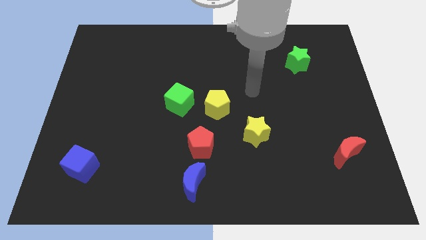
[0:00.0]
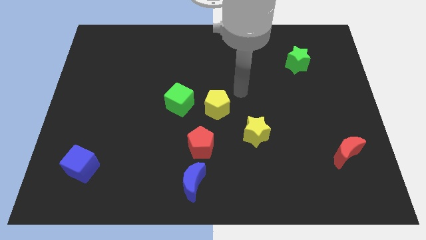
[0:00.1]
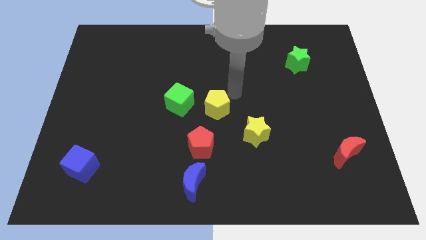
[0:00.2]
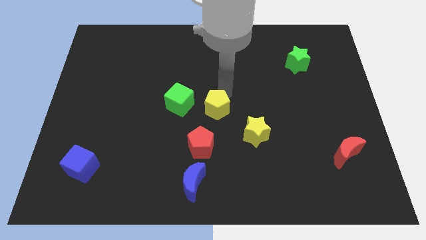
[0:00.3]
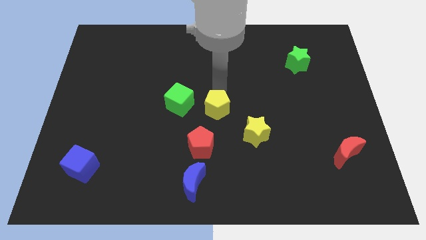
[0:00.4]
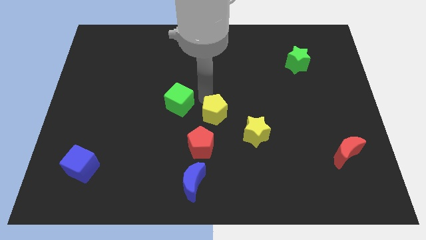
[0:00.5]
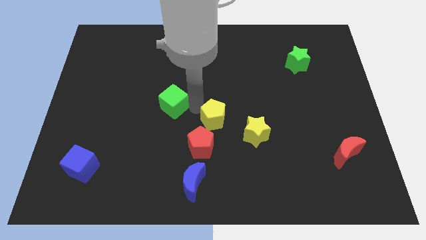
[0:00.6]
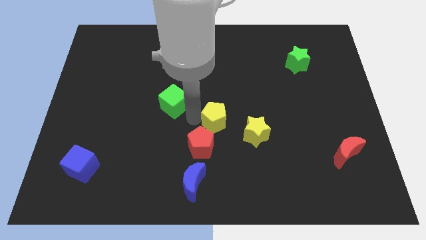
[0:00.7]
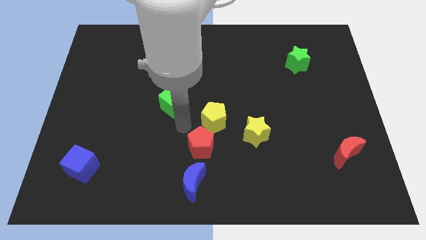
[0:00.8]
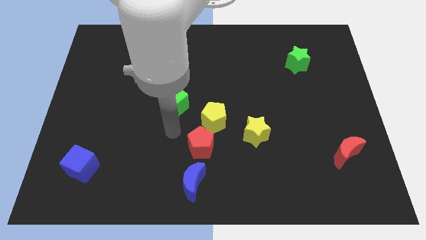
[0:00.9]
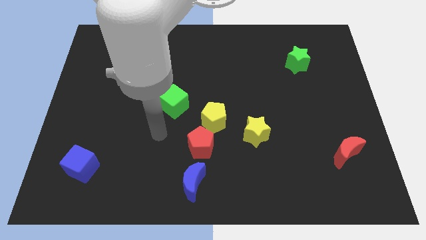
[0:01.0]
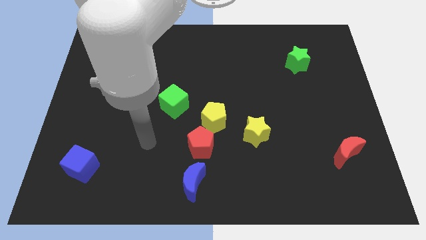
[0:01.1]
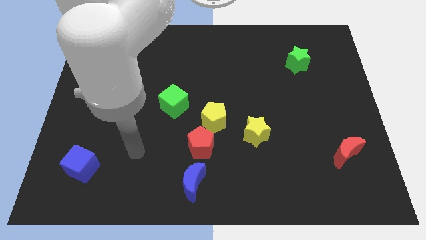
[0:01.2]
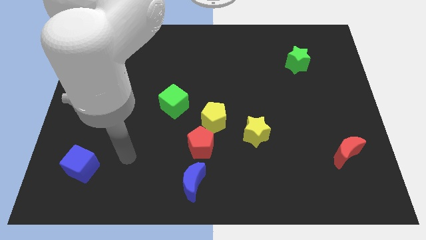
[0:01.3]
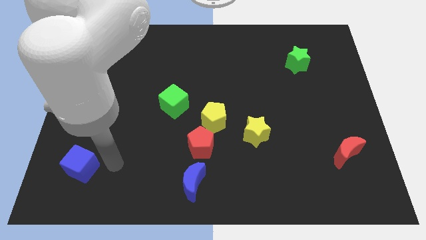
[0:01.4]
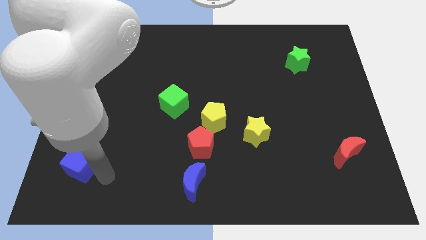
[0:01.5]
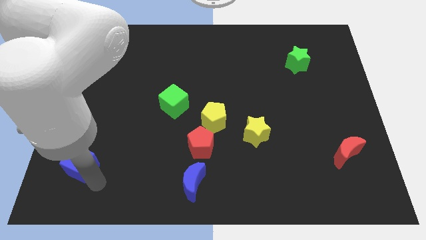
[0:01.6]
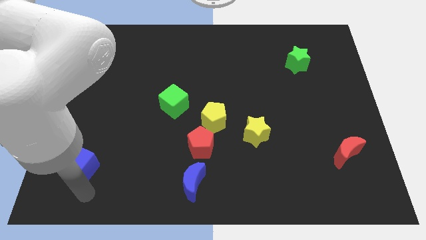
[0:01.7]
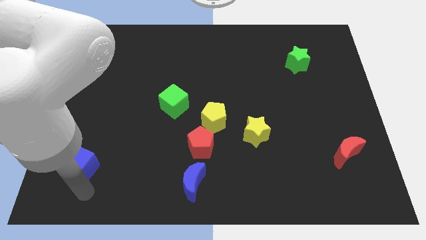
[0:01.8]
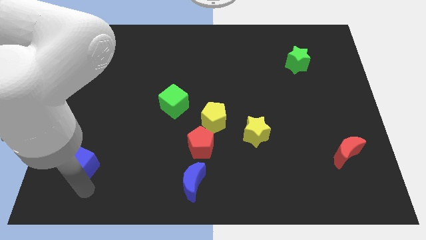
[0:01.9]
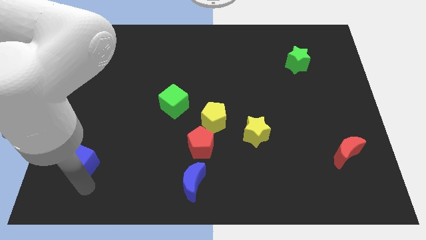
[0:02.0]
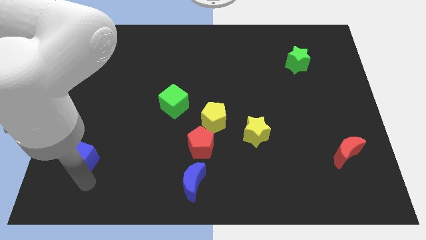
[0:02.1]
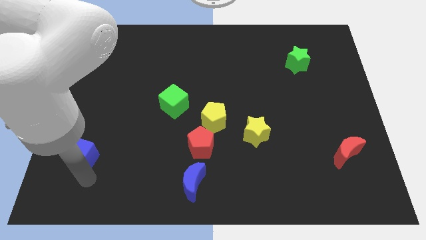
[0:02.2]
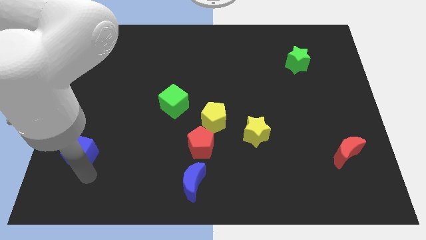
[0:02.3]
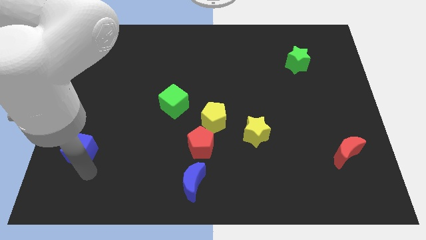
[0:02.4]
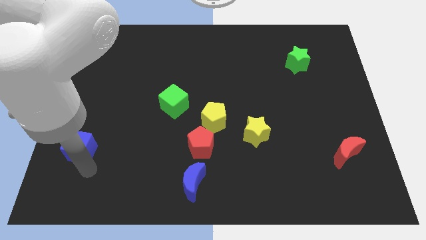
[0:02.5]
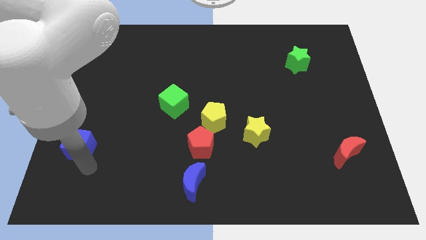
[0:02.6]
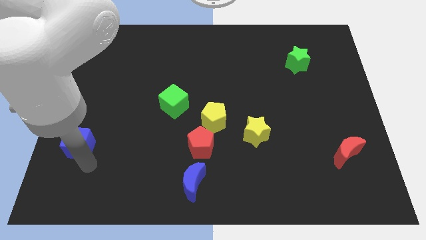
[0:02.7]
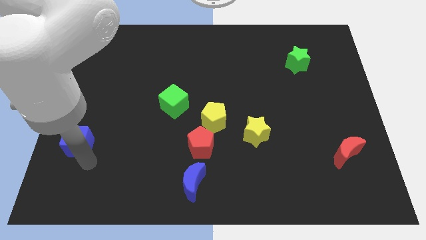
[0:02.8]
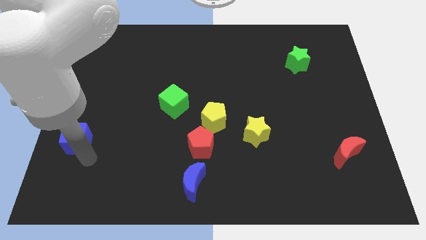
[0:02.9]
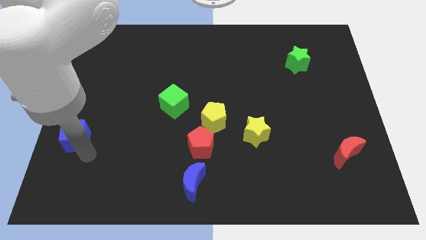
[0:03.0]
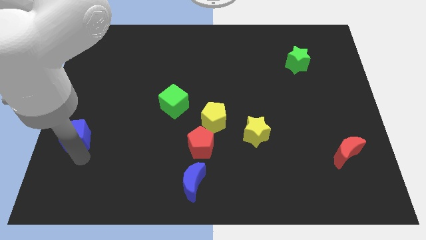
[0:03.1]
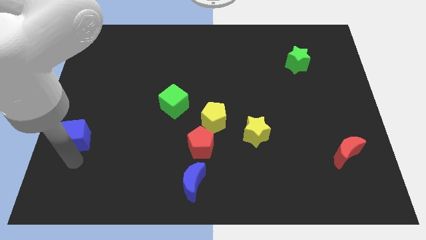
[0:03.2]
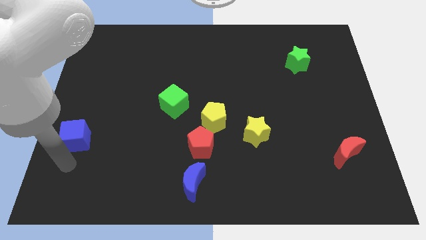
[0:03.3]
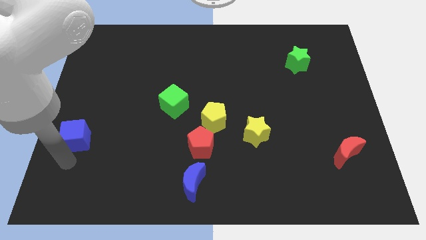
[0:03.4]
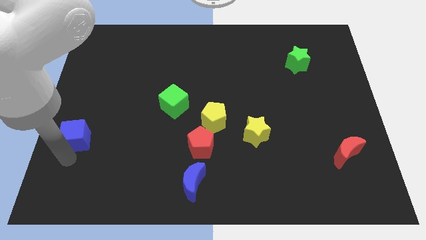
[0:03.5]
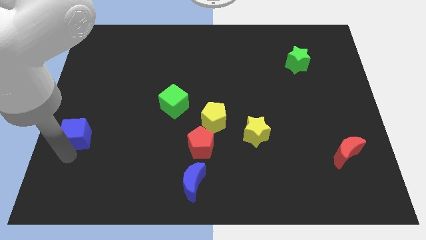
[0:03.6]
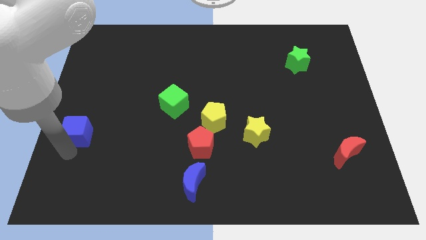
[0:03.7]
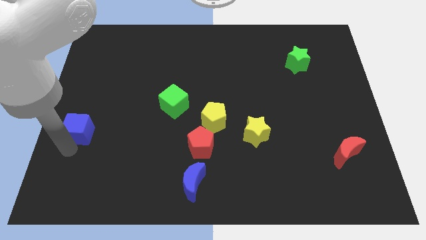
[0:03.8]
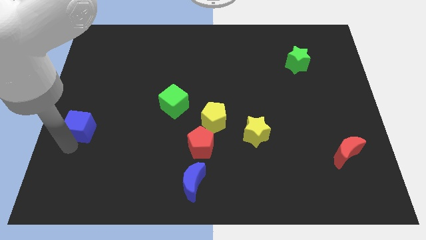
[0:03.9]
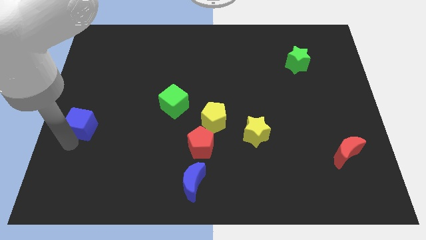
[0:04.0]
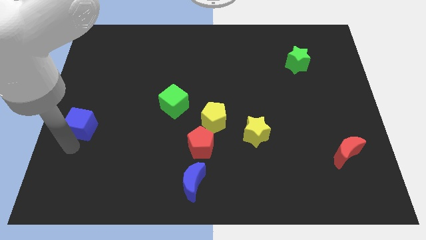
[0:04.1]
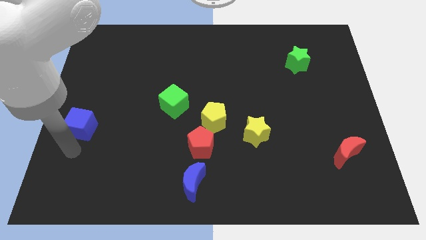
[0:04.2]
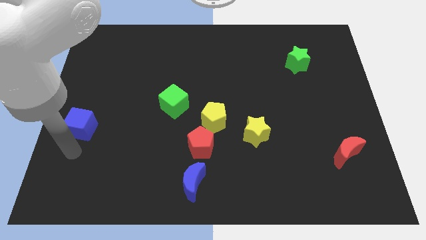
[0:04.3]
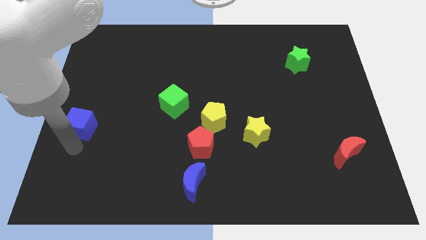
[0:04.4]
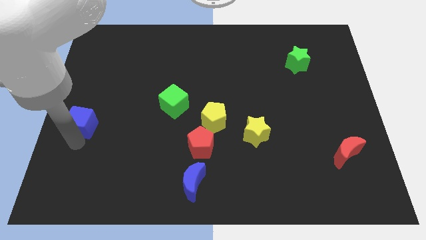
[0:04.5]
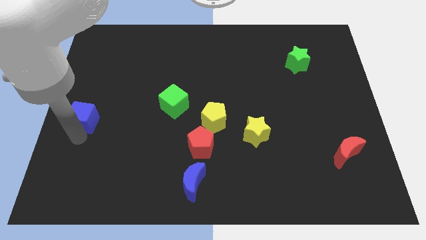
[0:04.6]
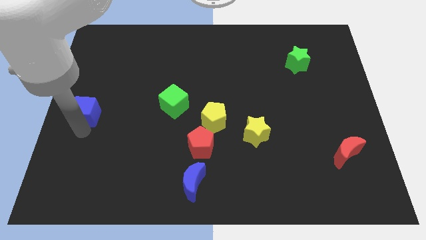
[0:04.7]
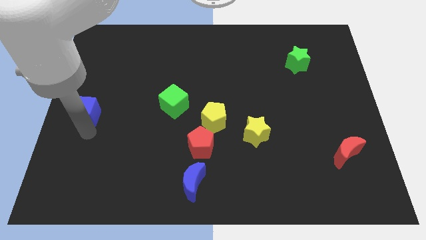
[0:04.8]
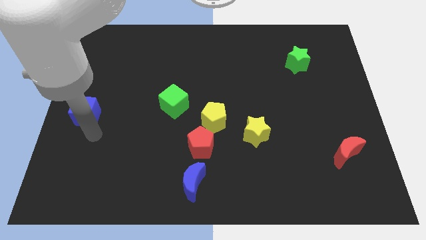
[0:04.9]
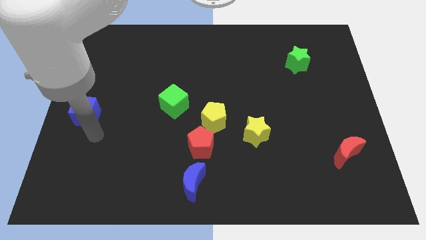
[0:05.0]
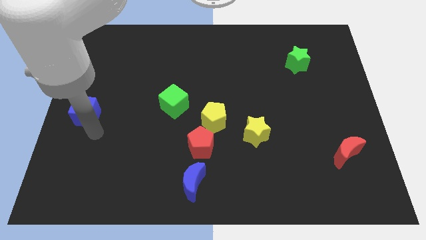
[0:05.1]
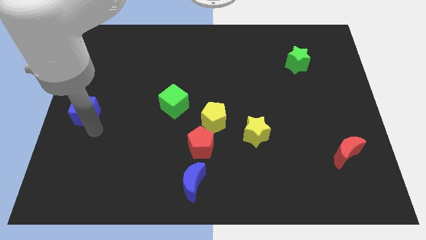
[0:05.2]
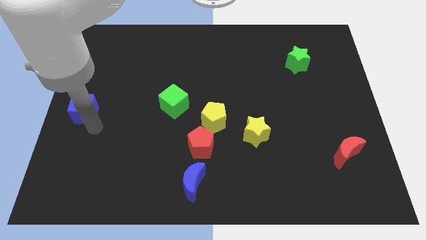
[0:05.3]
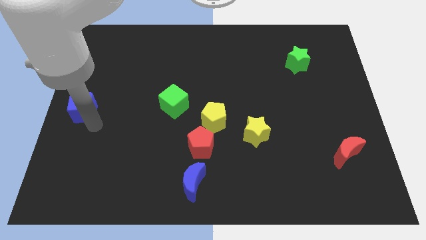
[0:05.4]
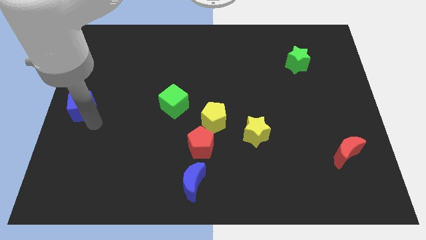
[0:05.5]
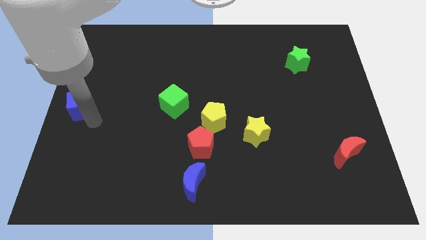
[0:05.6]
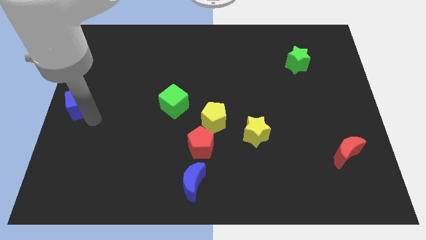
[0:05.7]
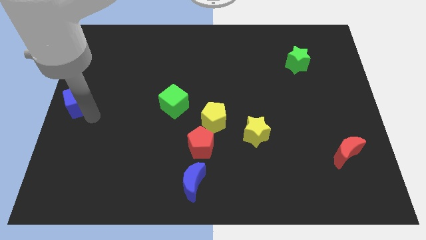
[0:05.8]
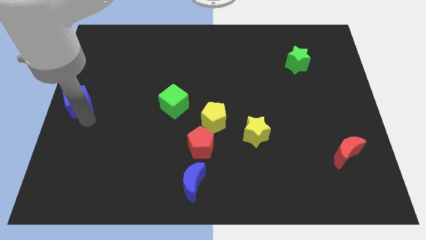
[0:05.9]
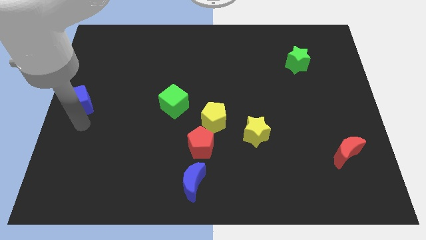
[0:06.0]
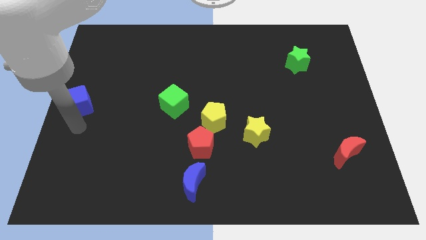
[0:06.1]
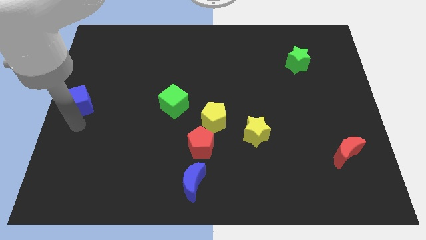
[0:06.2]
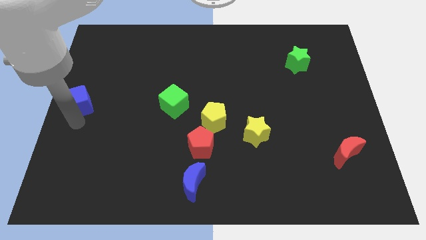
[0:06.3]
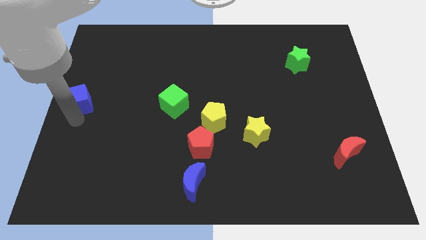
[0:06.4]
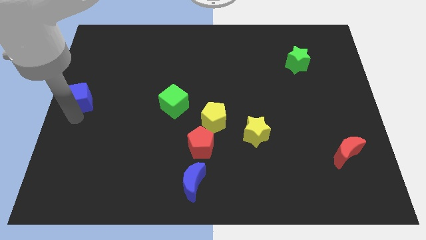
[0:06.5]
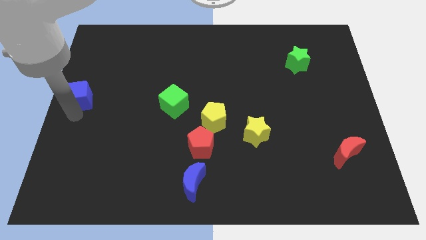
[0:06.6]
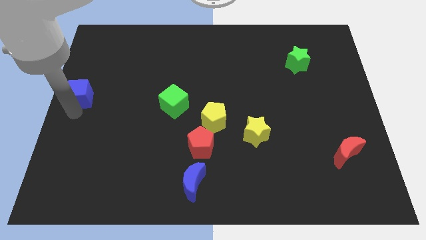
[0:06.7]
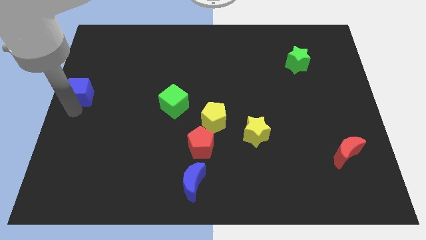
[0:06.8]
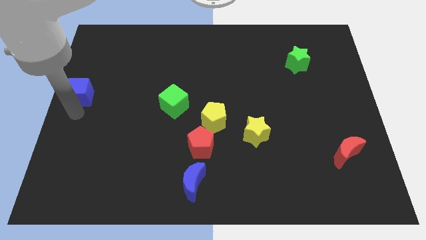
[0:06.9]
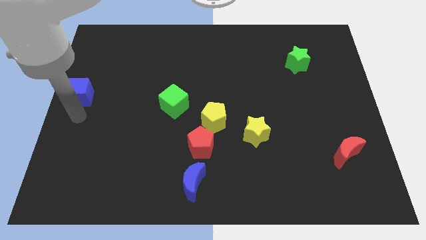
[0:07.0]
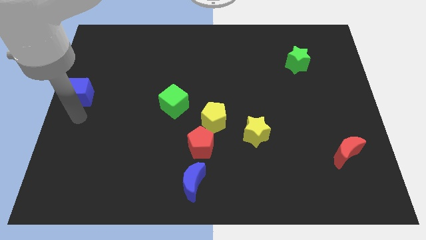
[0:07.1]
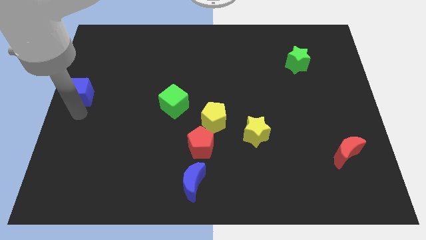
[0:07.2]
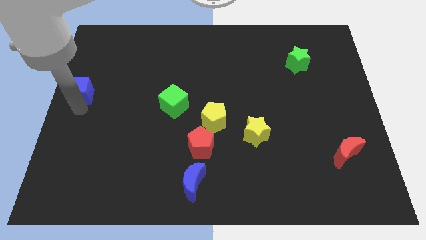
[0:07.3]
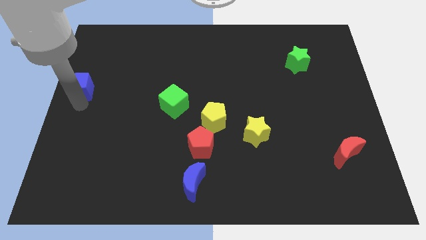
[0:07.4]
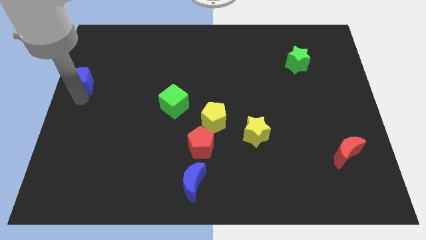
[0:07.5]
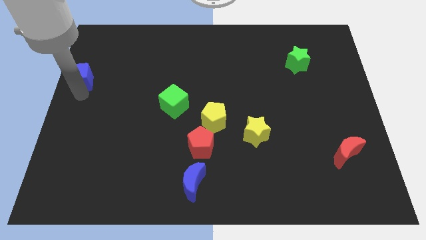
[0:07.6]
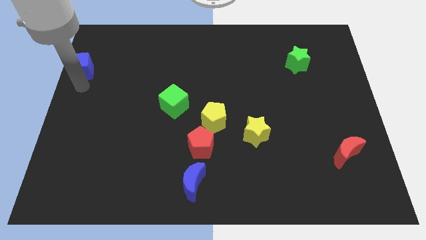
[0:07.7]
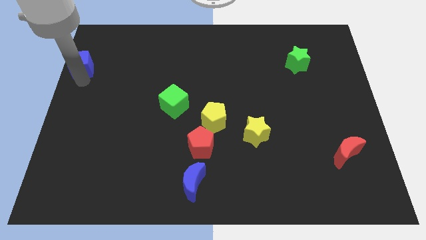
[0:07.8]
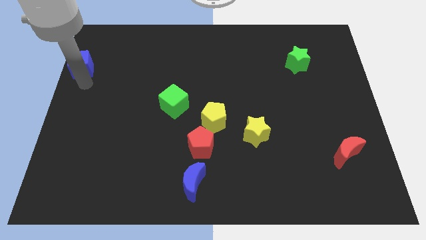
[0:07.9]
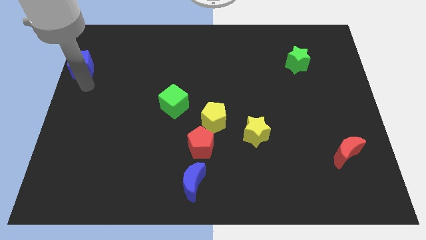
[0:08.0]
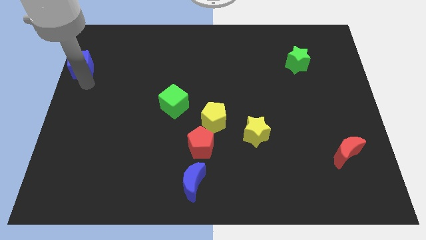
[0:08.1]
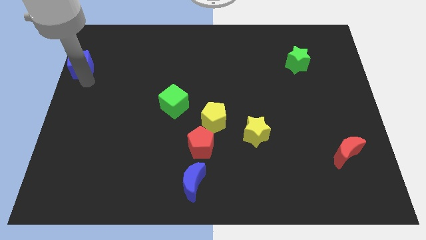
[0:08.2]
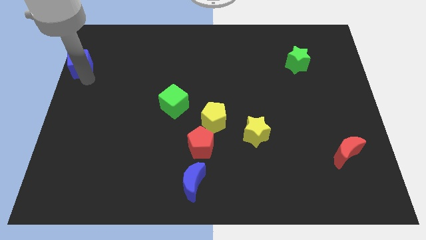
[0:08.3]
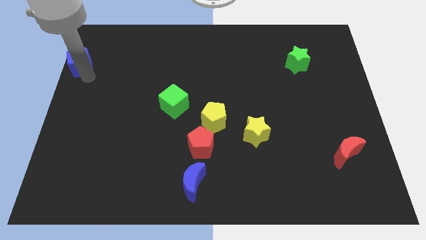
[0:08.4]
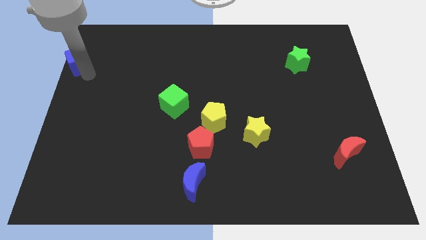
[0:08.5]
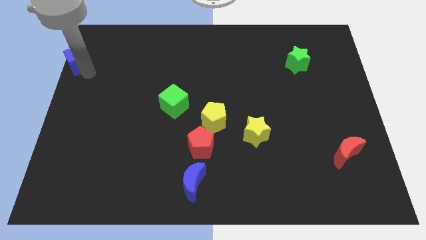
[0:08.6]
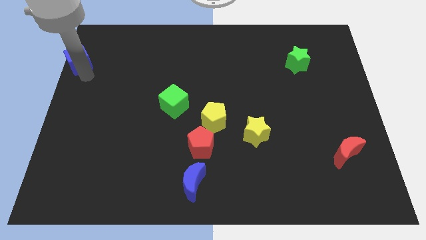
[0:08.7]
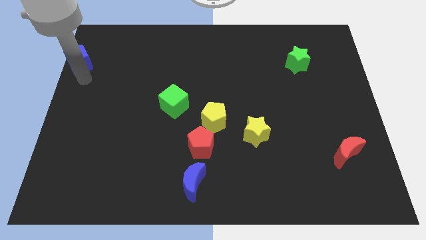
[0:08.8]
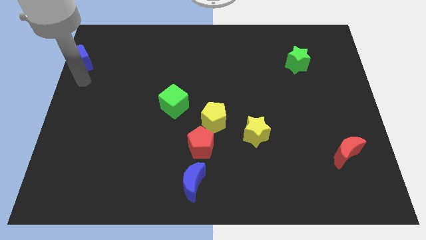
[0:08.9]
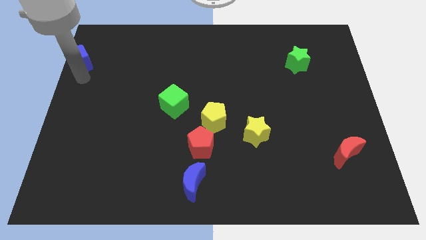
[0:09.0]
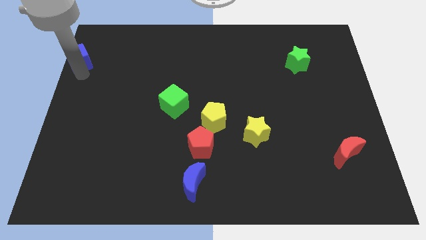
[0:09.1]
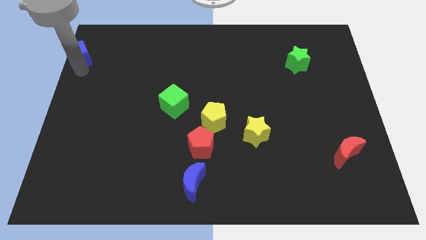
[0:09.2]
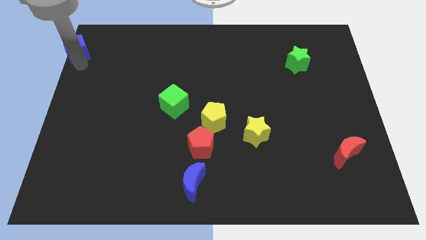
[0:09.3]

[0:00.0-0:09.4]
slide the blue cube to the upper left corner
